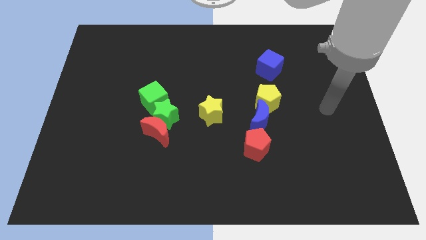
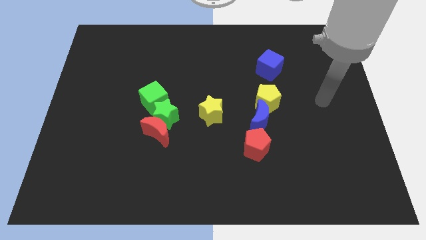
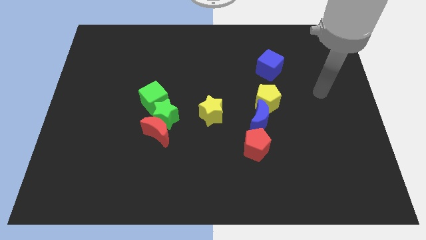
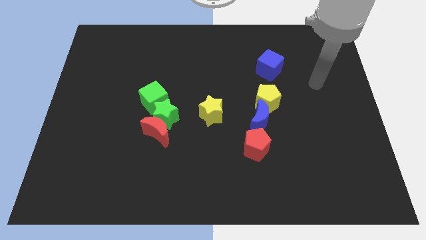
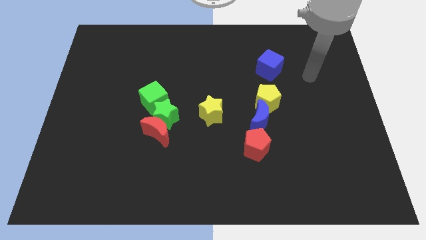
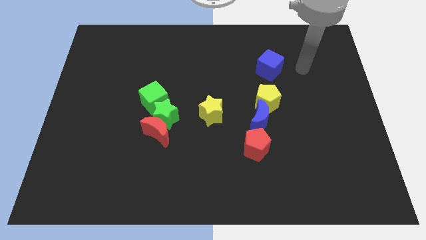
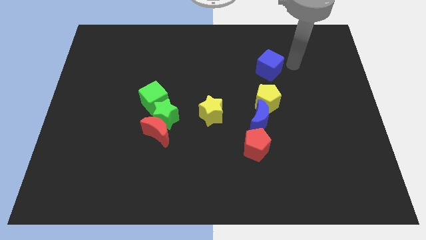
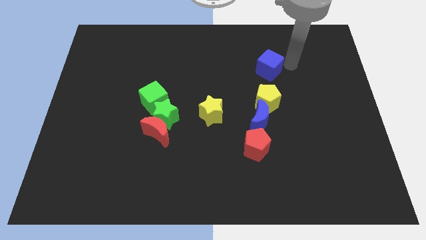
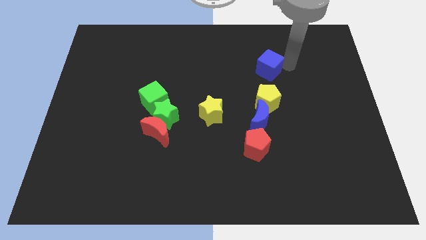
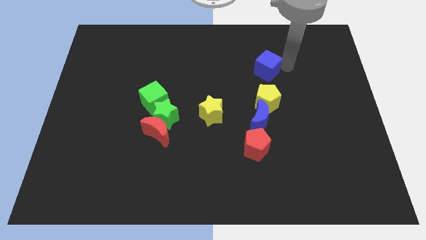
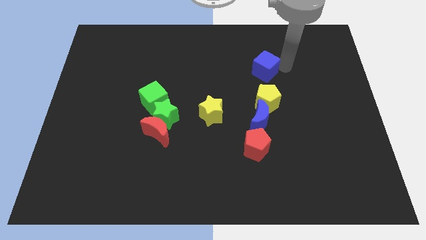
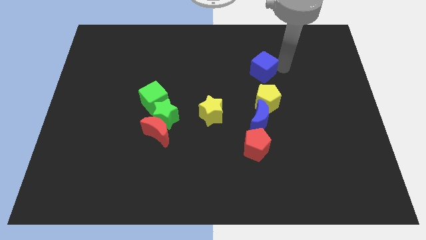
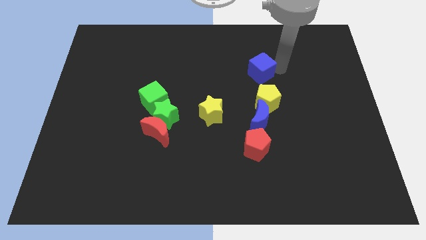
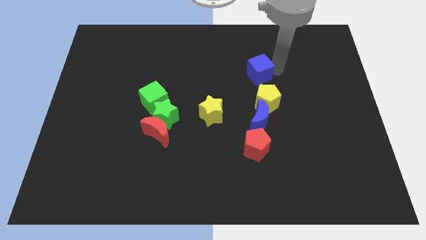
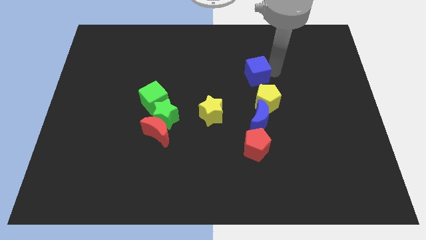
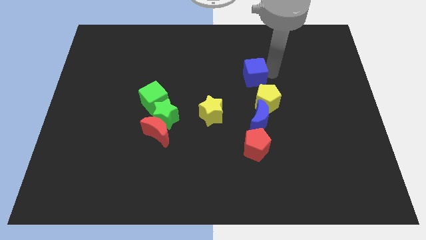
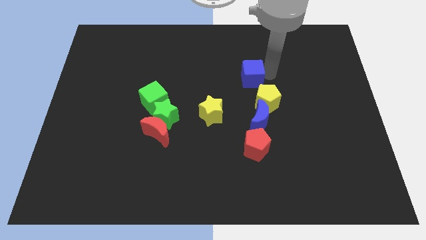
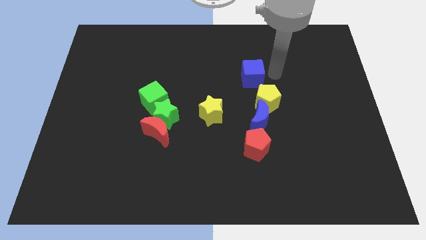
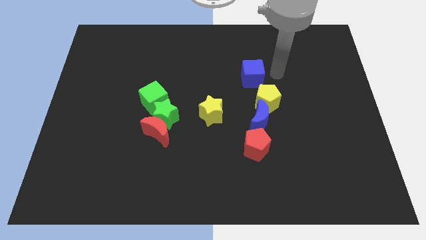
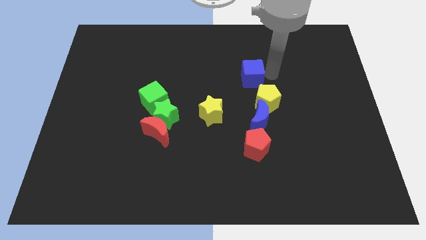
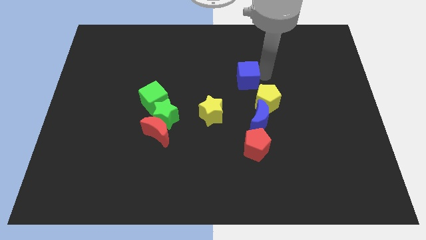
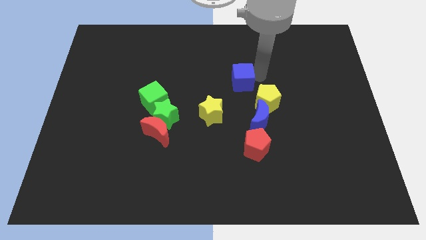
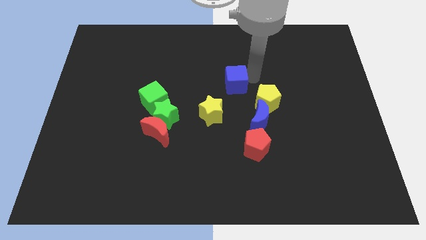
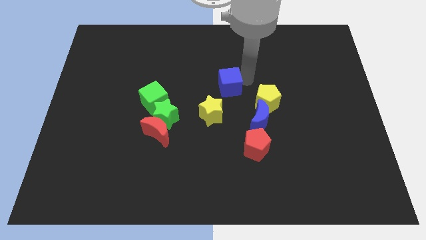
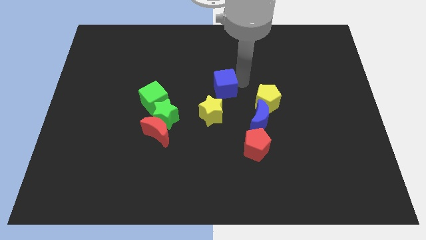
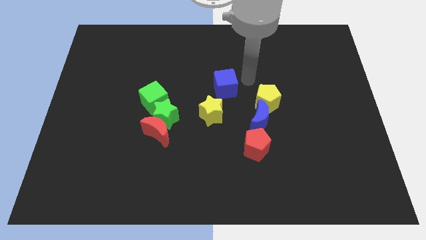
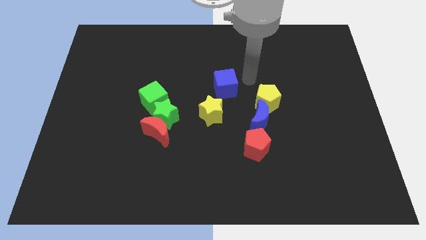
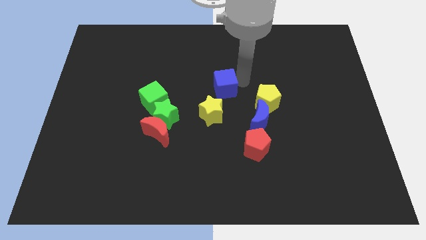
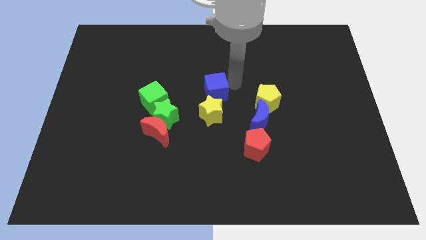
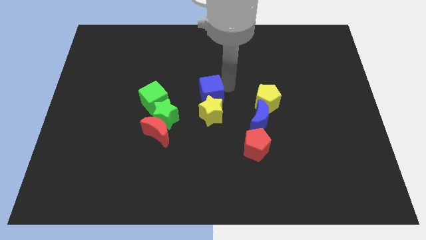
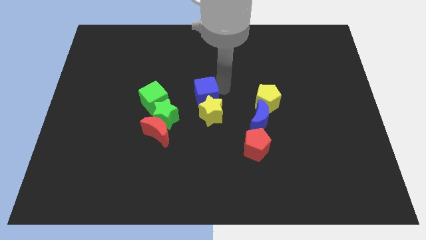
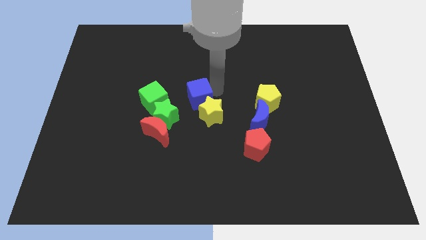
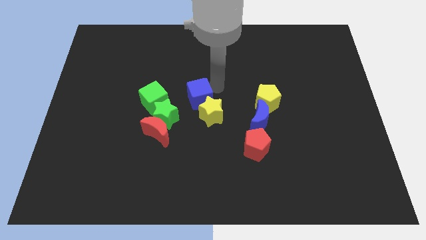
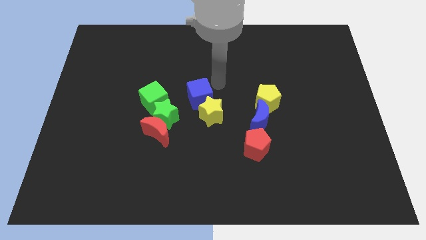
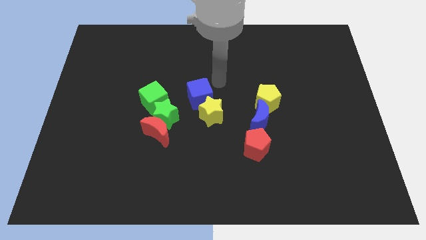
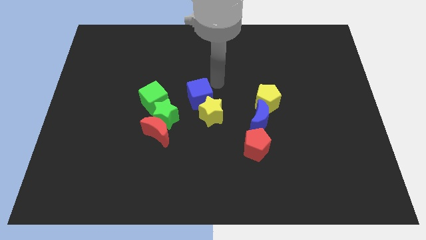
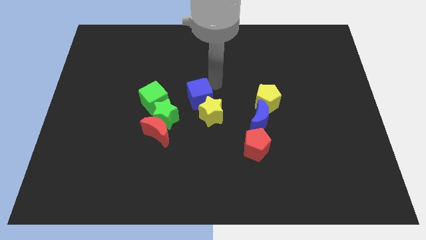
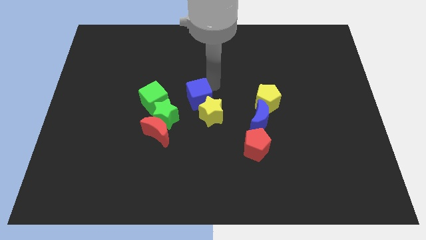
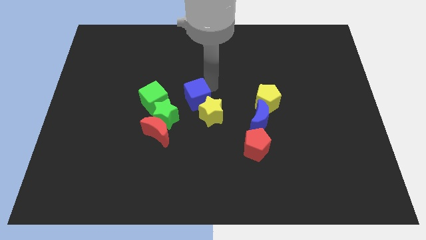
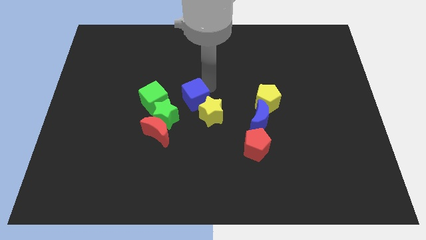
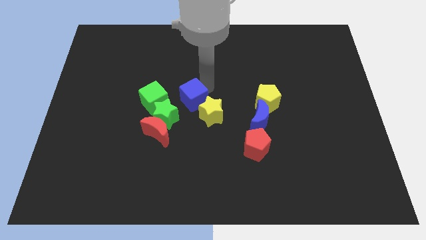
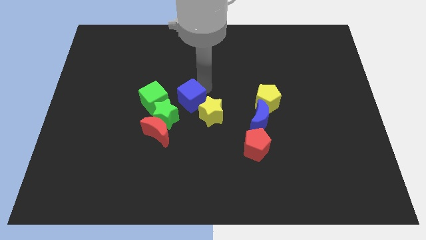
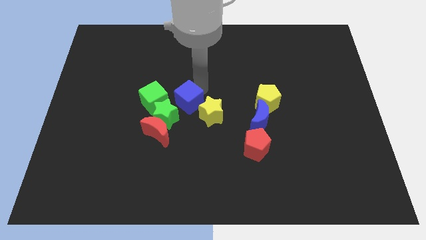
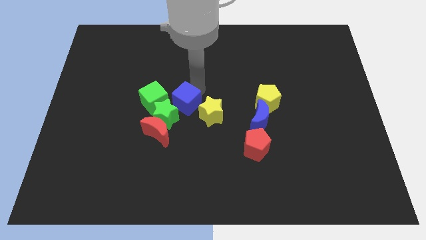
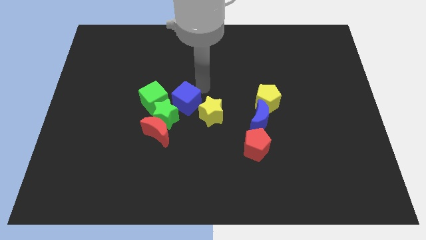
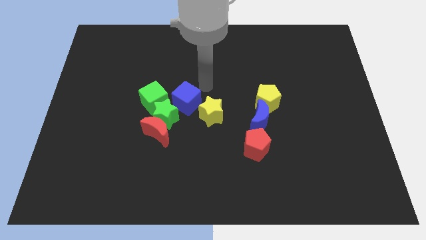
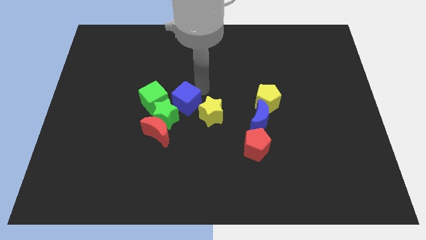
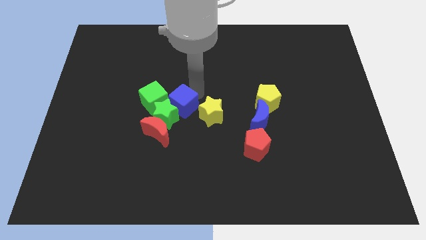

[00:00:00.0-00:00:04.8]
move the blue cube towards the green star

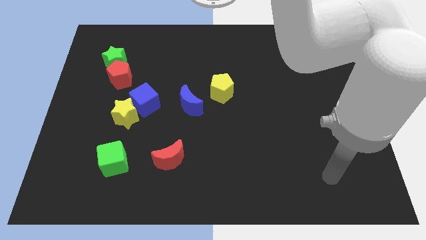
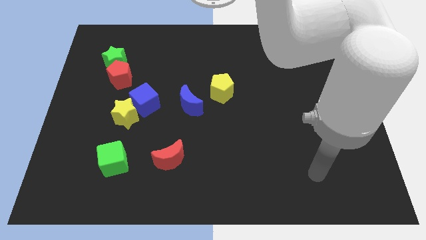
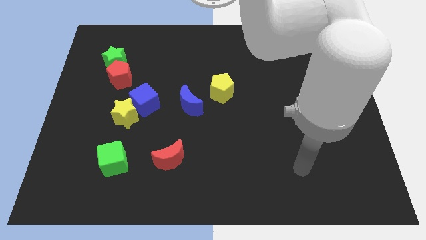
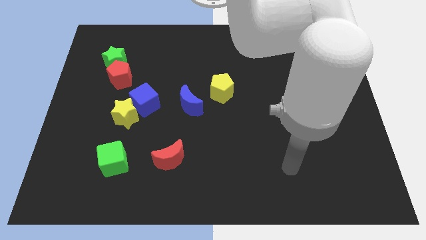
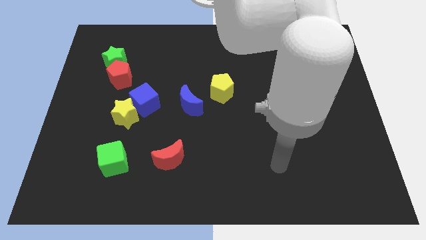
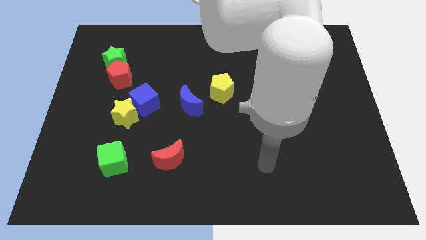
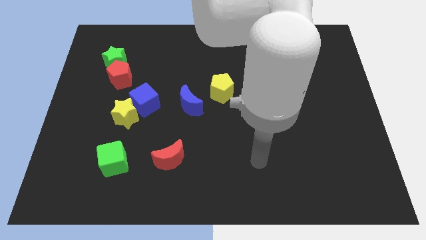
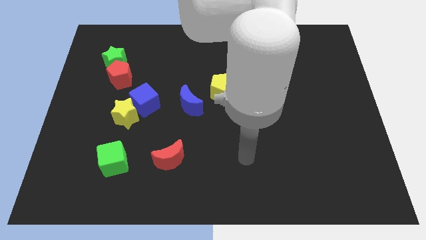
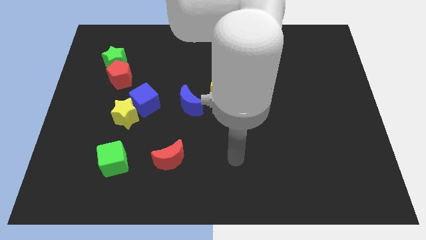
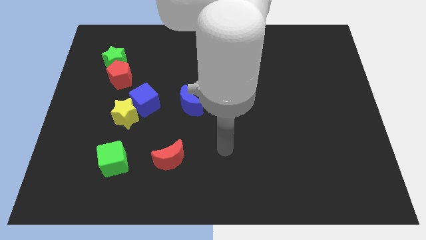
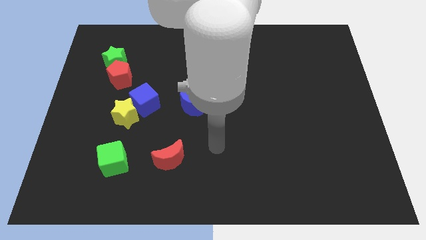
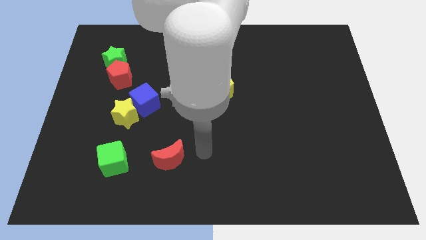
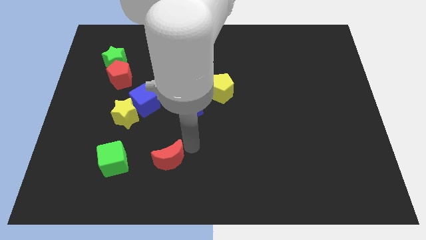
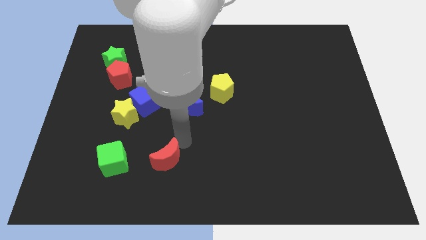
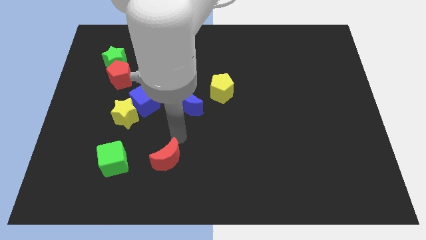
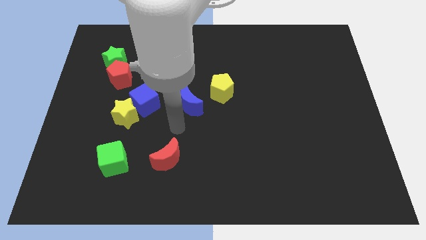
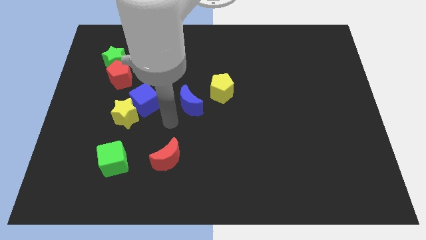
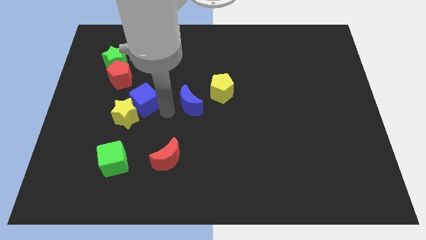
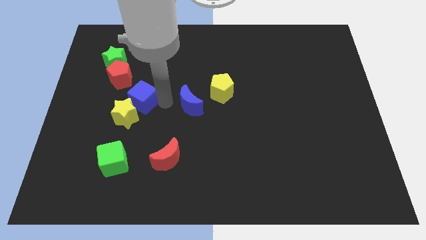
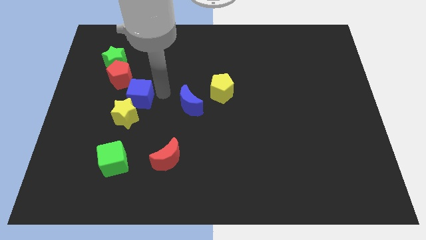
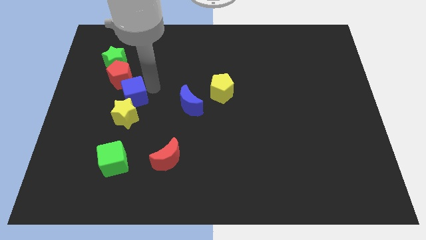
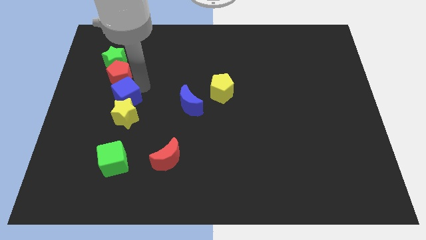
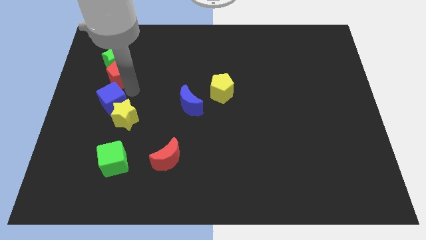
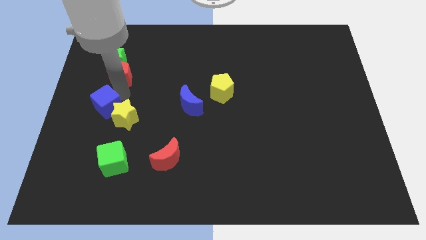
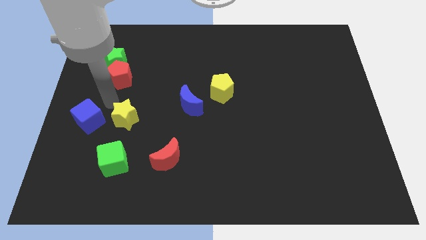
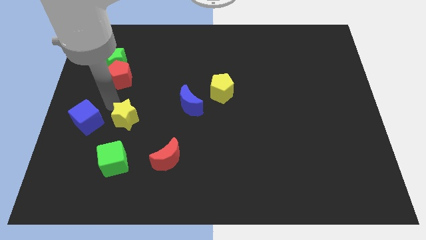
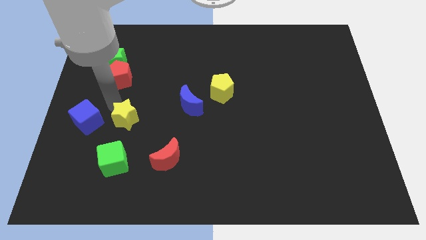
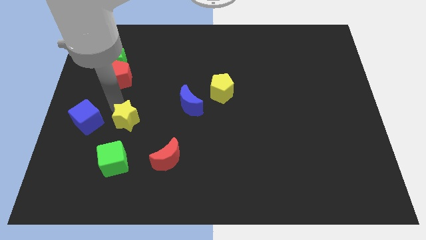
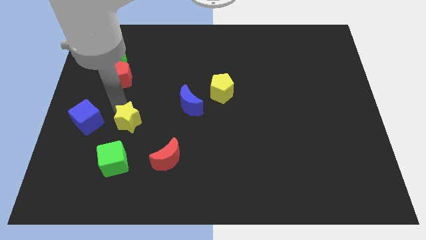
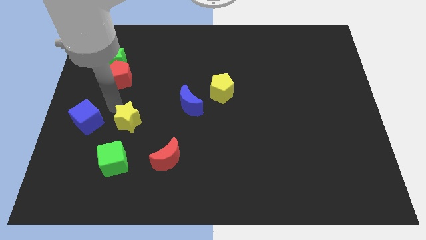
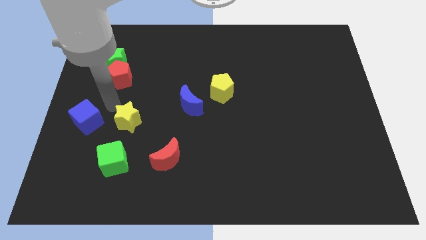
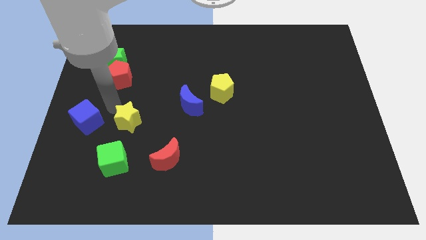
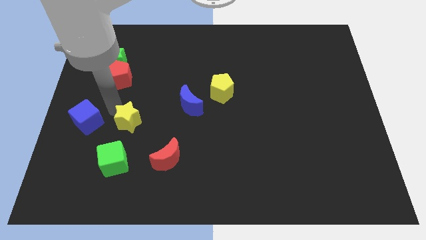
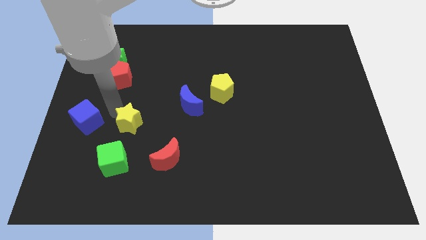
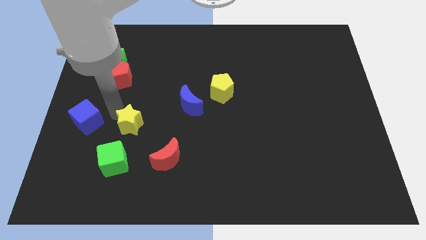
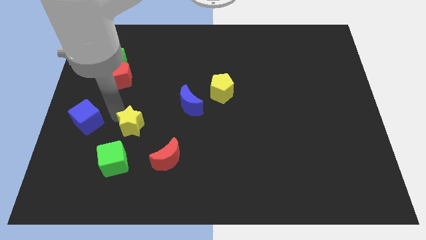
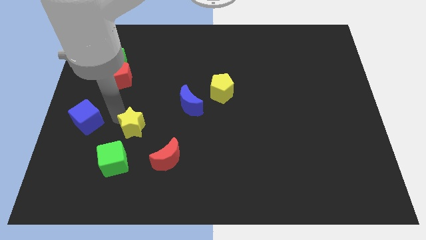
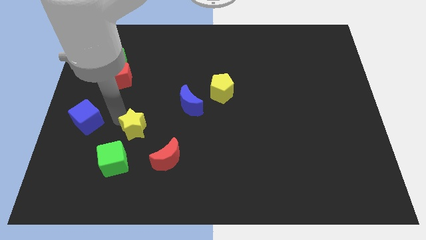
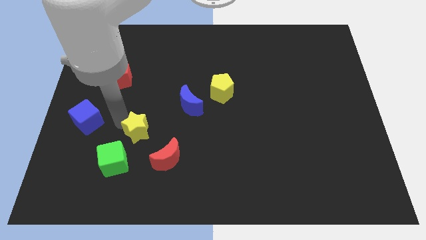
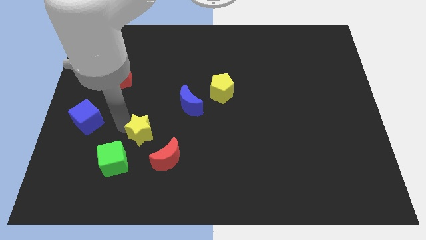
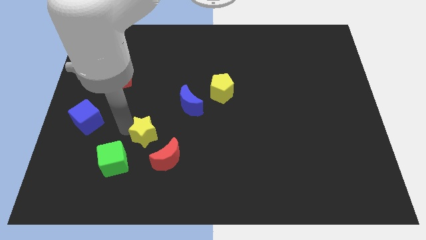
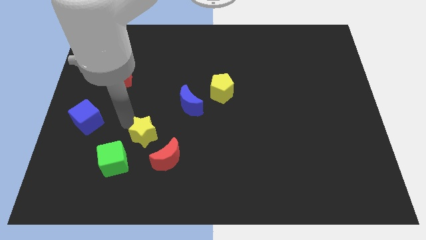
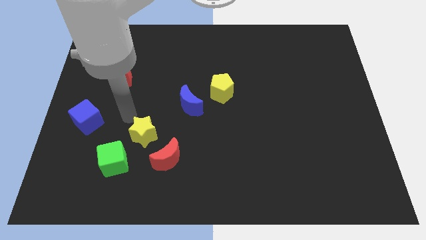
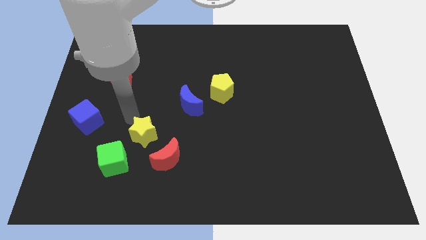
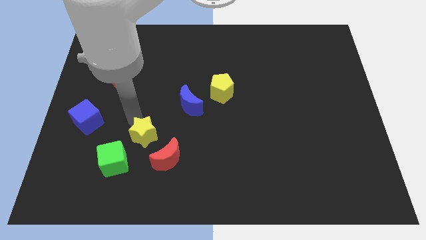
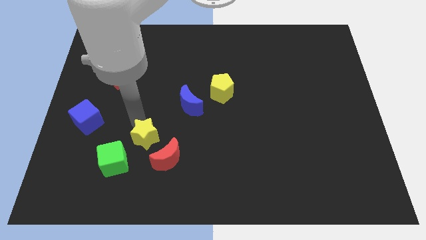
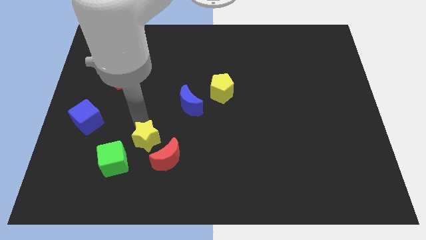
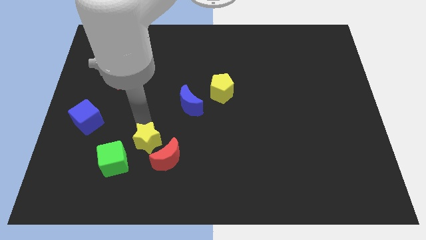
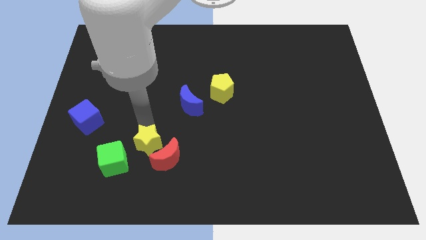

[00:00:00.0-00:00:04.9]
move the yellow star next to the red moon
